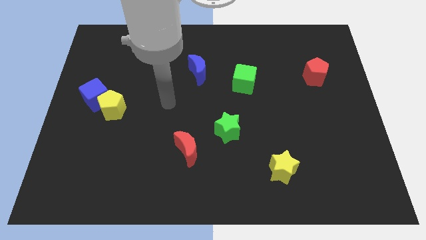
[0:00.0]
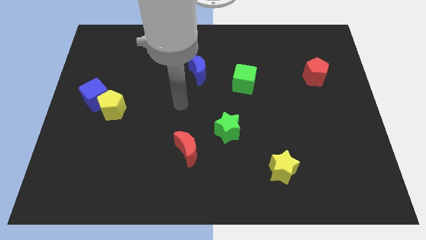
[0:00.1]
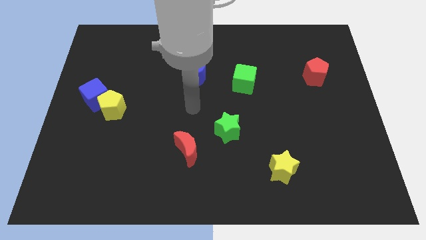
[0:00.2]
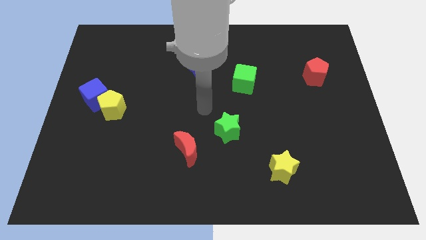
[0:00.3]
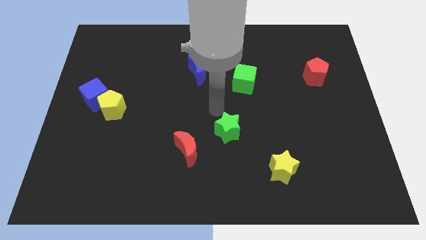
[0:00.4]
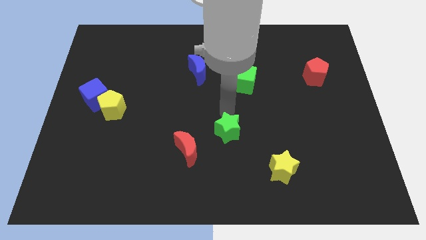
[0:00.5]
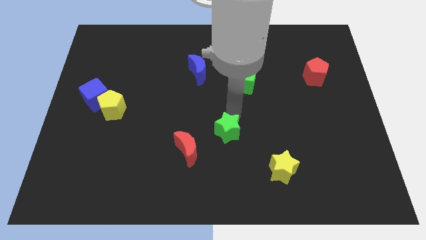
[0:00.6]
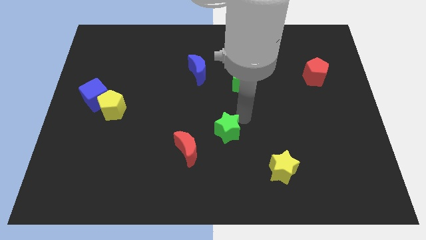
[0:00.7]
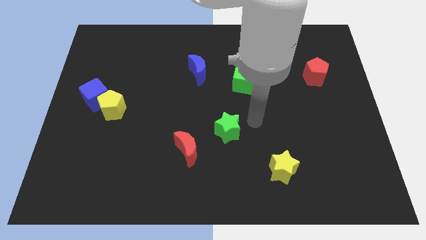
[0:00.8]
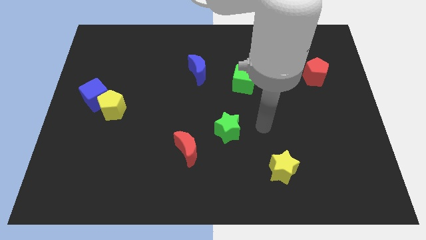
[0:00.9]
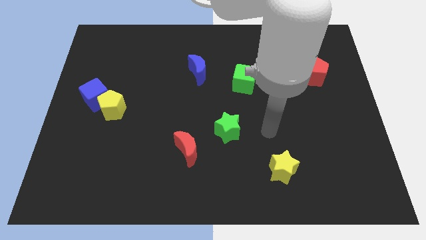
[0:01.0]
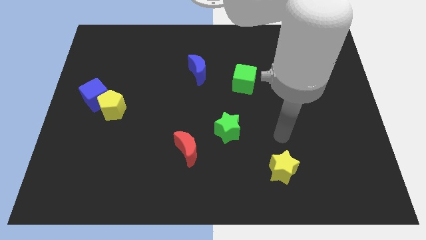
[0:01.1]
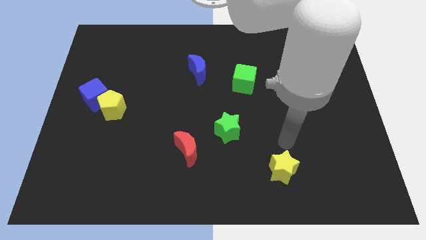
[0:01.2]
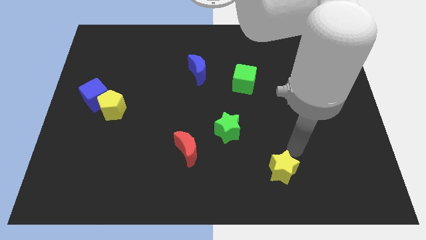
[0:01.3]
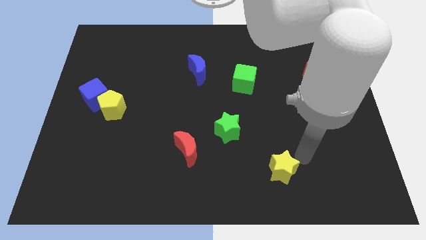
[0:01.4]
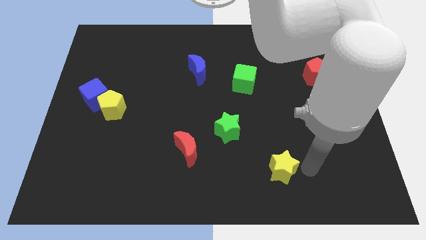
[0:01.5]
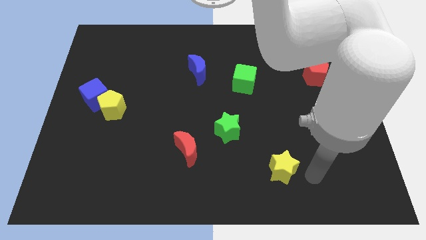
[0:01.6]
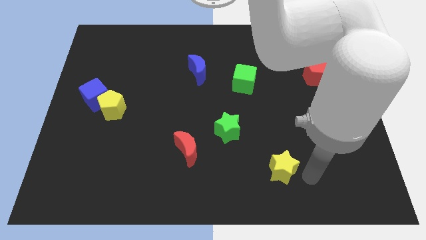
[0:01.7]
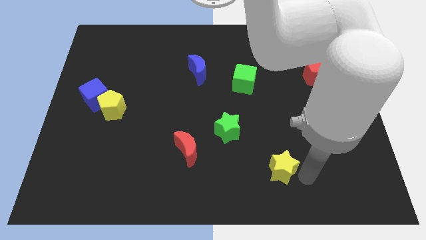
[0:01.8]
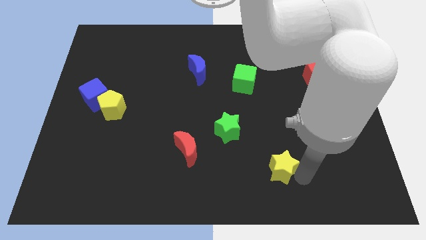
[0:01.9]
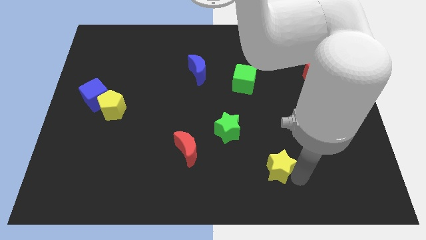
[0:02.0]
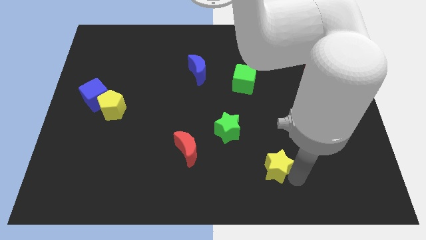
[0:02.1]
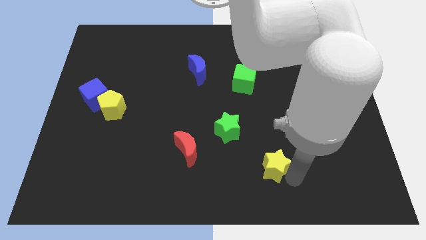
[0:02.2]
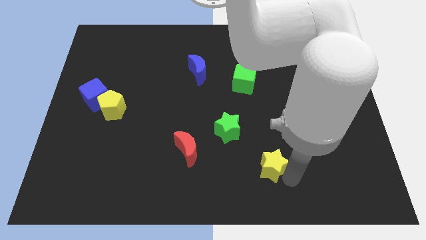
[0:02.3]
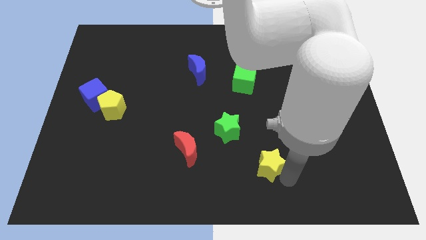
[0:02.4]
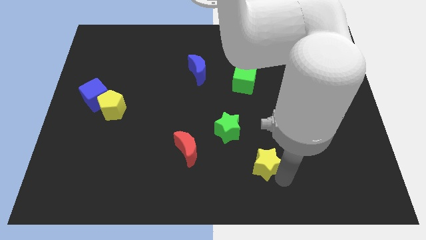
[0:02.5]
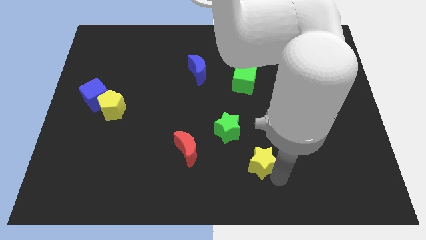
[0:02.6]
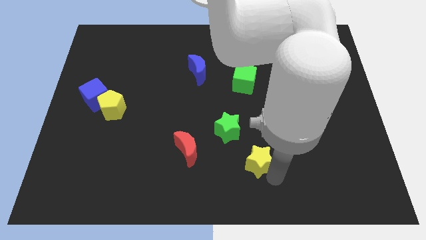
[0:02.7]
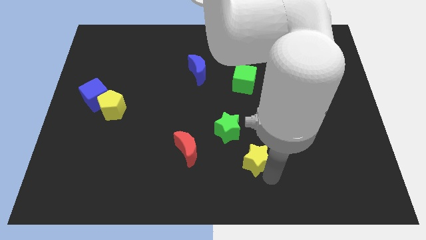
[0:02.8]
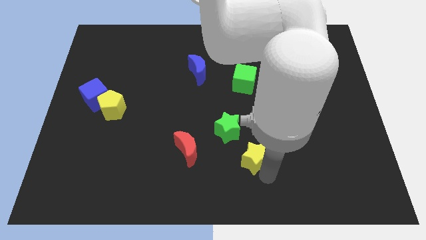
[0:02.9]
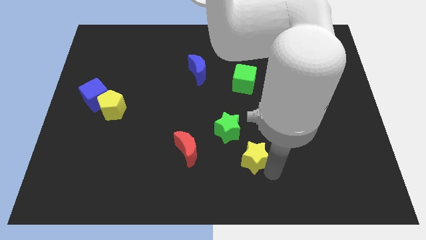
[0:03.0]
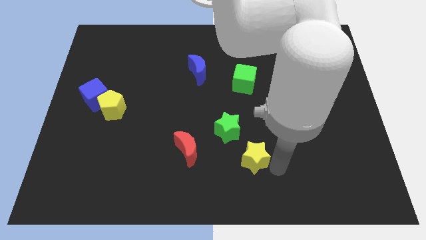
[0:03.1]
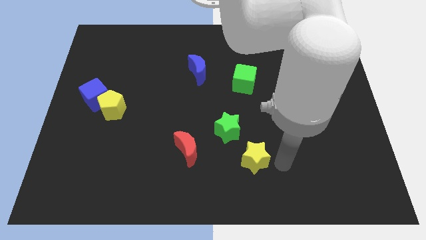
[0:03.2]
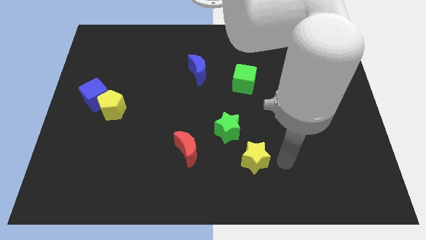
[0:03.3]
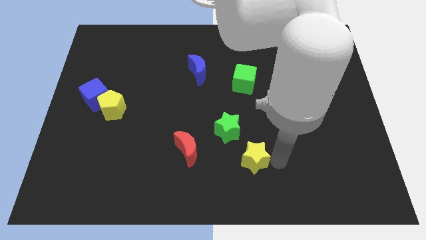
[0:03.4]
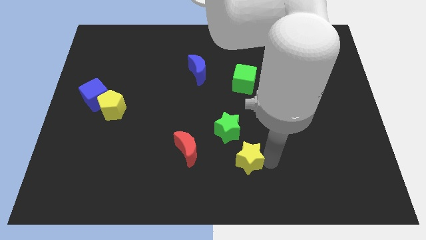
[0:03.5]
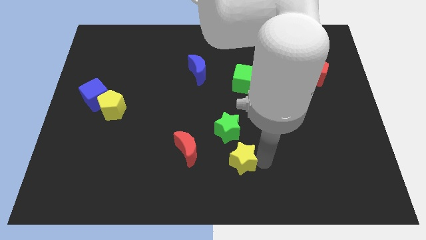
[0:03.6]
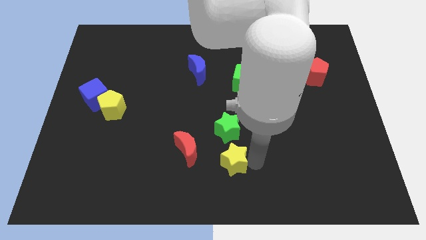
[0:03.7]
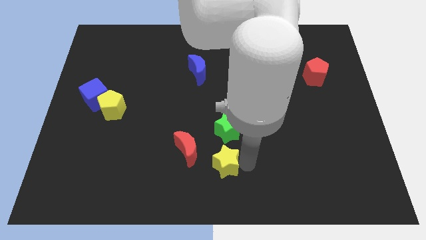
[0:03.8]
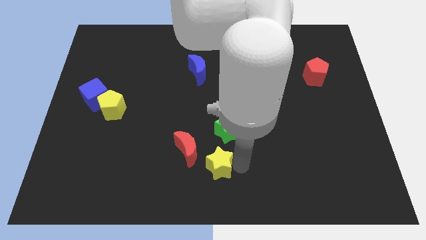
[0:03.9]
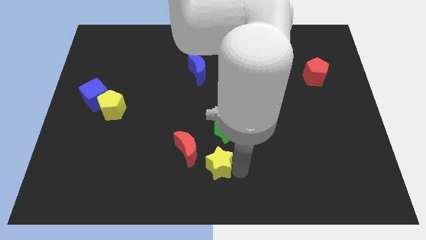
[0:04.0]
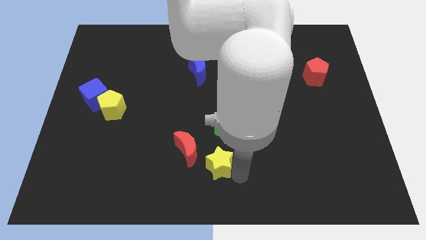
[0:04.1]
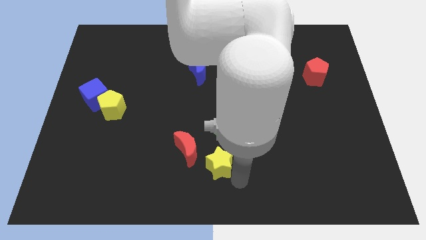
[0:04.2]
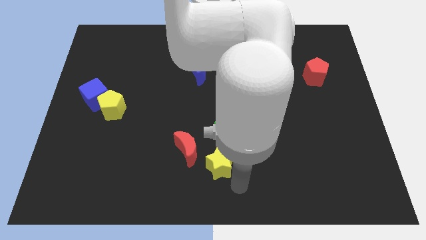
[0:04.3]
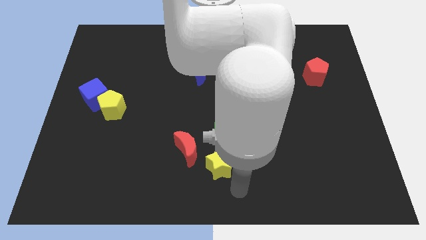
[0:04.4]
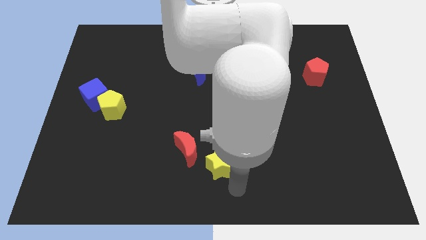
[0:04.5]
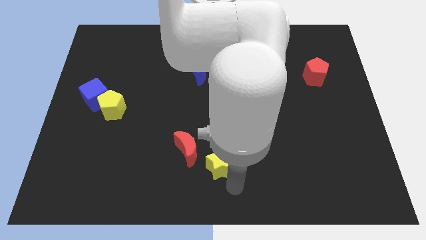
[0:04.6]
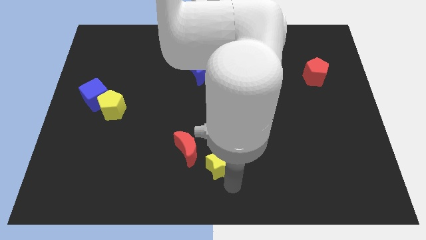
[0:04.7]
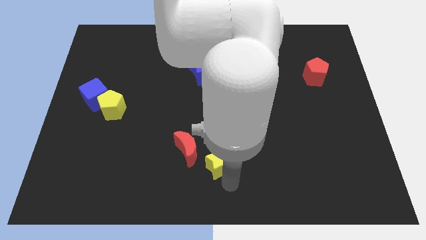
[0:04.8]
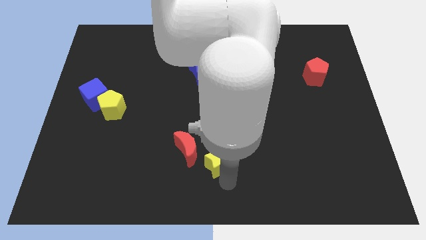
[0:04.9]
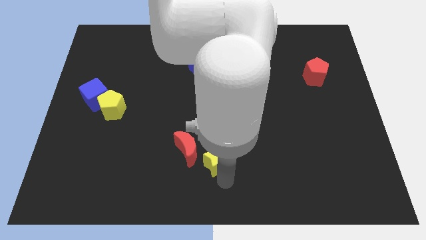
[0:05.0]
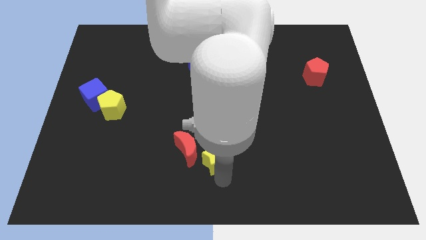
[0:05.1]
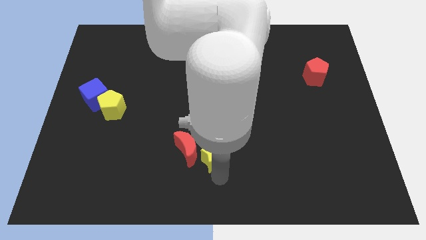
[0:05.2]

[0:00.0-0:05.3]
slide the yellow star next to the red moon

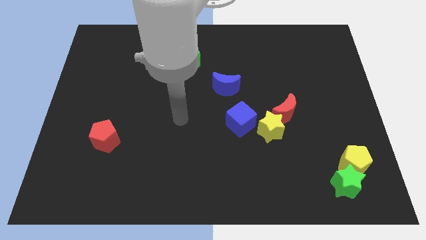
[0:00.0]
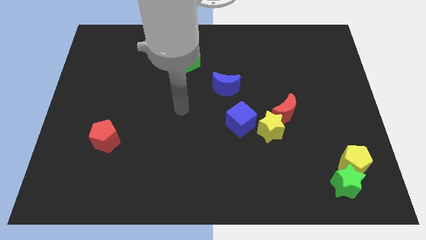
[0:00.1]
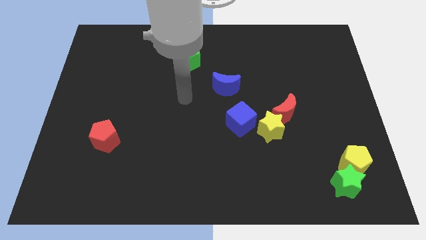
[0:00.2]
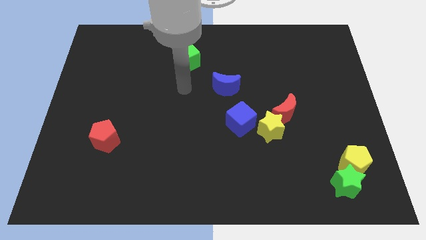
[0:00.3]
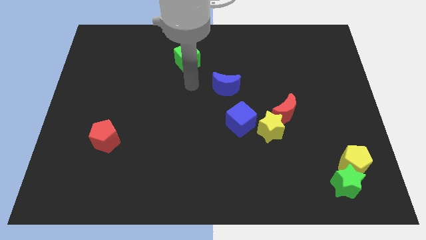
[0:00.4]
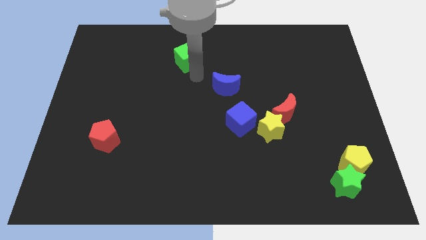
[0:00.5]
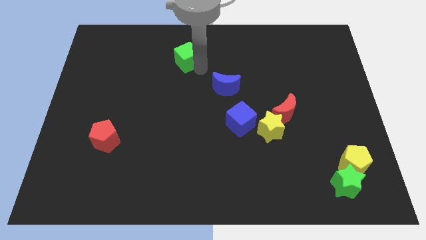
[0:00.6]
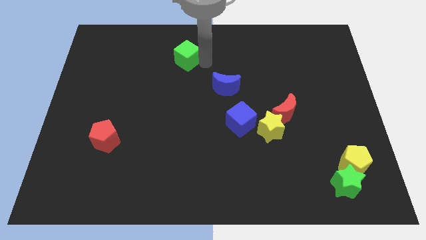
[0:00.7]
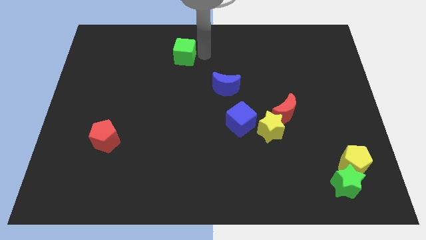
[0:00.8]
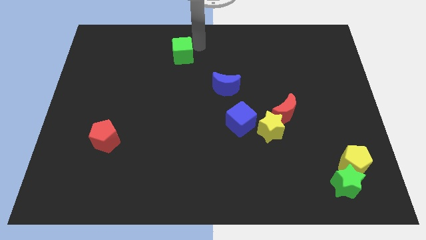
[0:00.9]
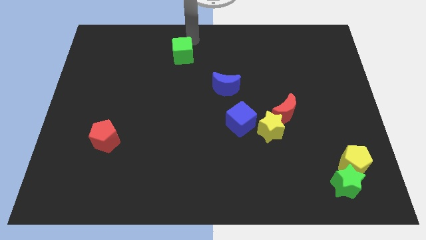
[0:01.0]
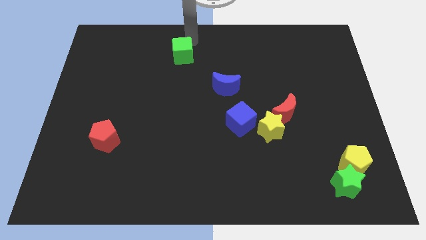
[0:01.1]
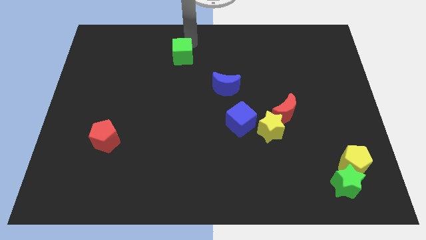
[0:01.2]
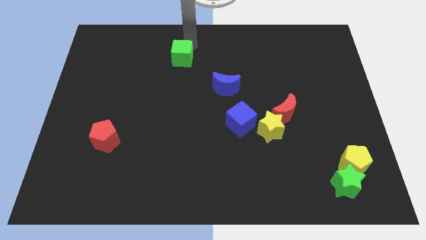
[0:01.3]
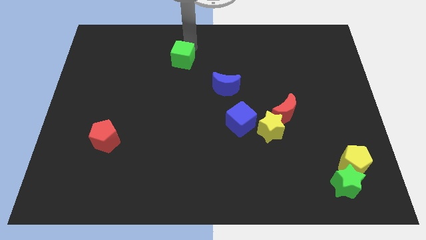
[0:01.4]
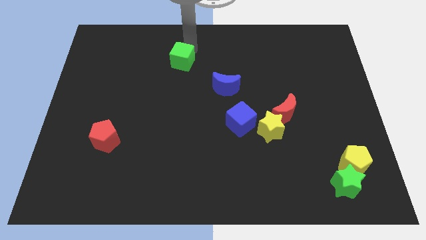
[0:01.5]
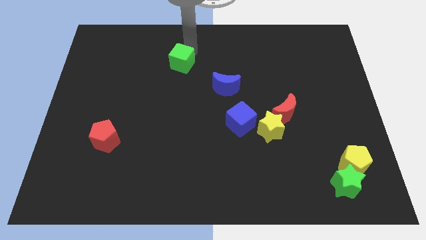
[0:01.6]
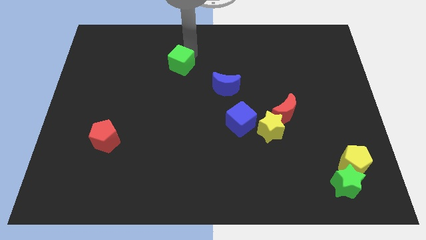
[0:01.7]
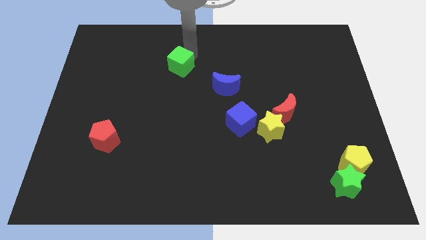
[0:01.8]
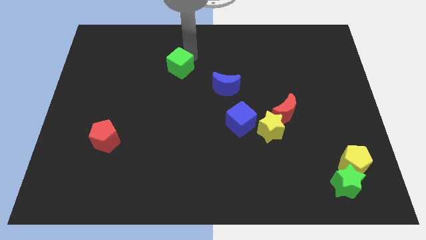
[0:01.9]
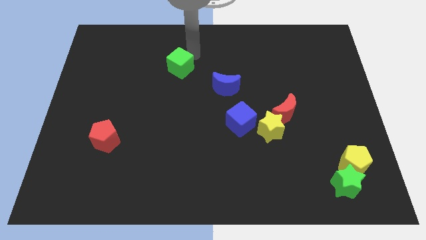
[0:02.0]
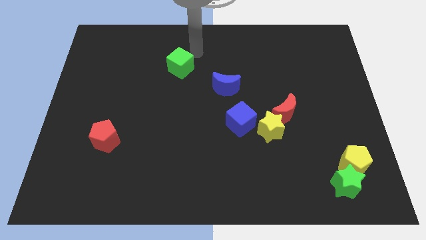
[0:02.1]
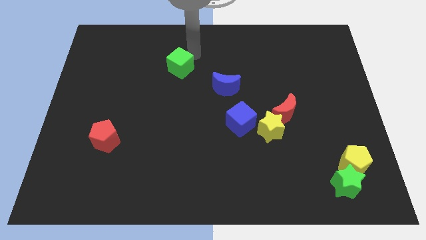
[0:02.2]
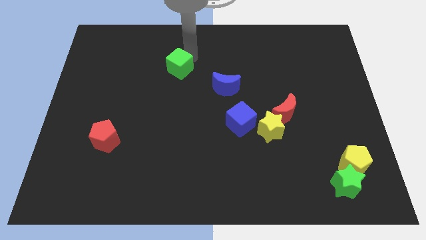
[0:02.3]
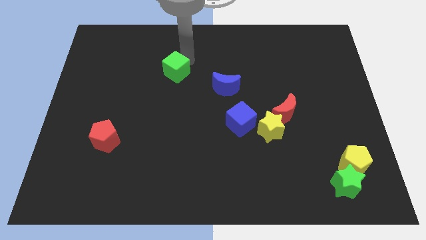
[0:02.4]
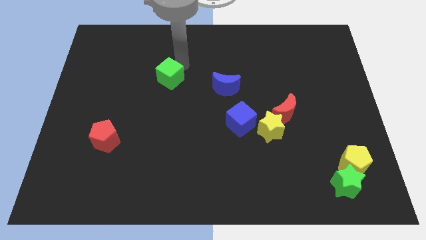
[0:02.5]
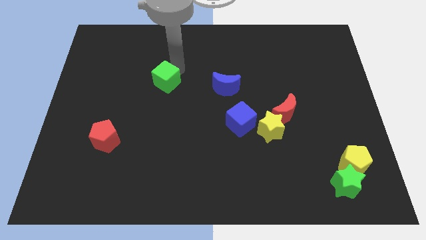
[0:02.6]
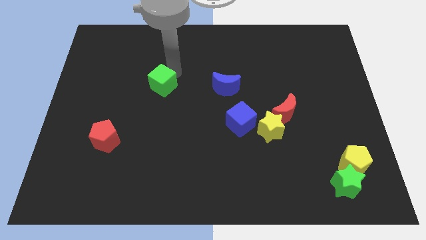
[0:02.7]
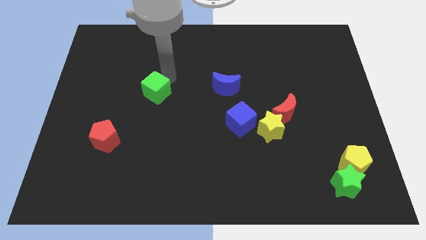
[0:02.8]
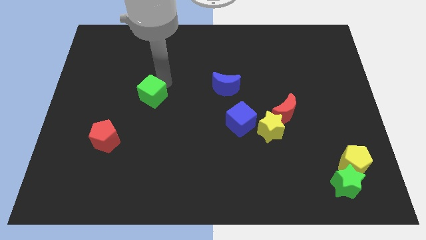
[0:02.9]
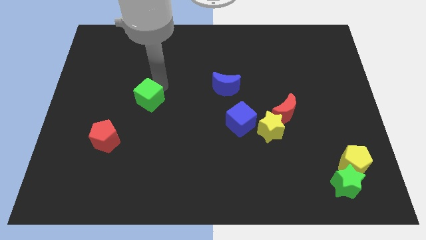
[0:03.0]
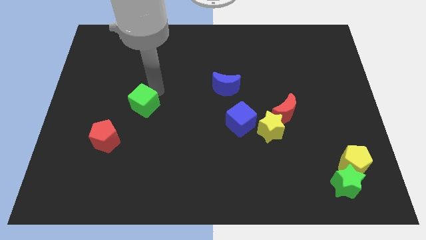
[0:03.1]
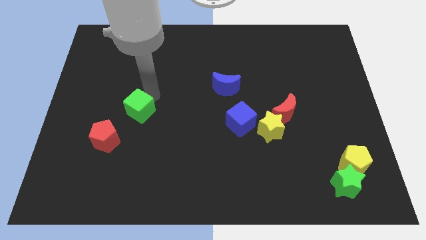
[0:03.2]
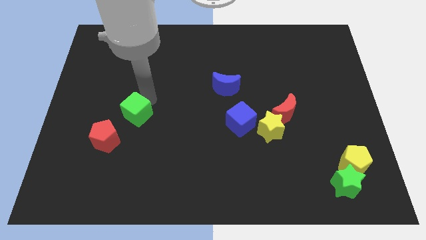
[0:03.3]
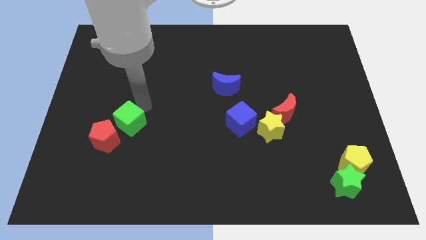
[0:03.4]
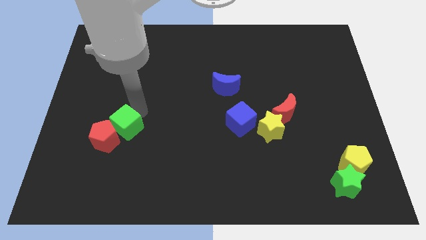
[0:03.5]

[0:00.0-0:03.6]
slide the green cube towards the red pentagon
